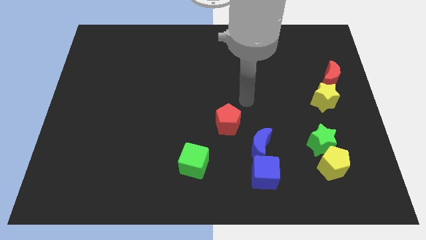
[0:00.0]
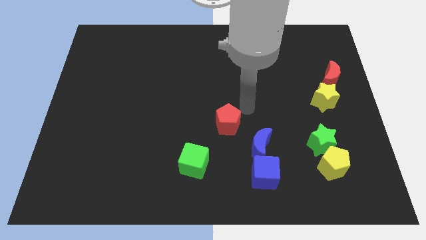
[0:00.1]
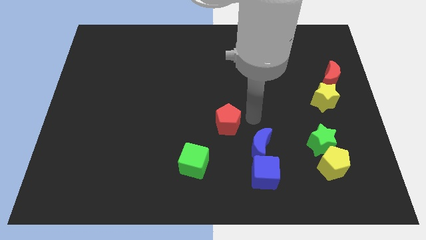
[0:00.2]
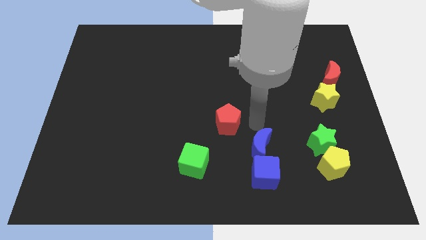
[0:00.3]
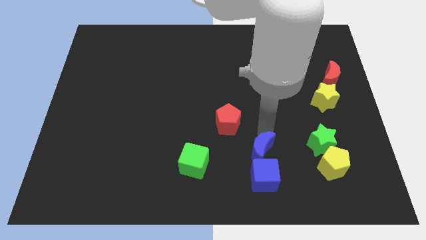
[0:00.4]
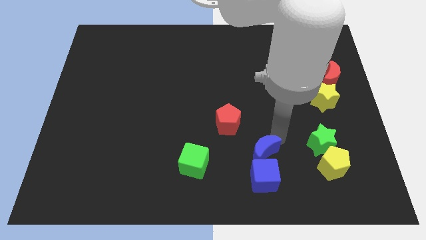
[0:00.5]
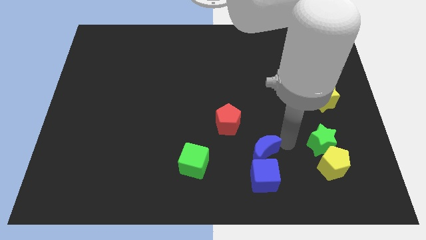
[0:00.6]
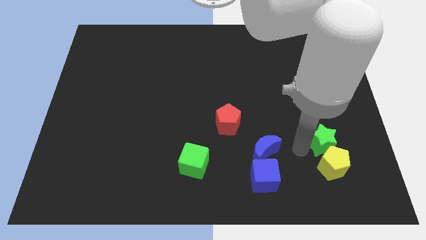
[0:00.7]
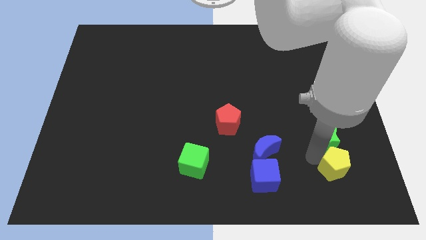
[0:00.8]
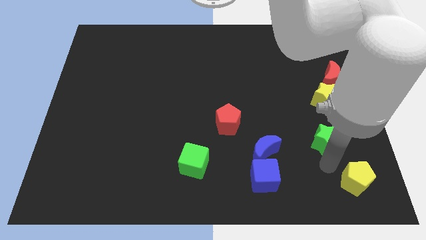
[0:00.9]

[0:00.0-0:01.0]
separate the green star from the yellow pentagon

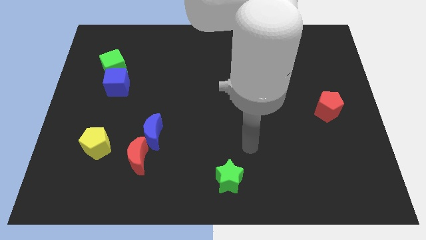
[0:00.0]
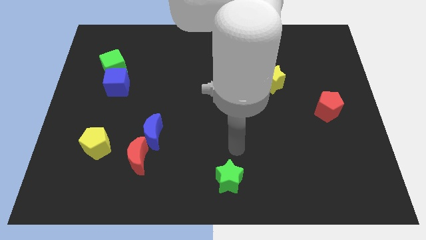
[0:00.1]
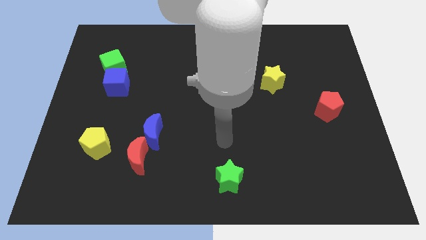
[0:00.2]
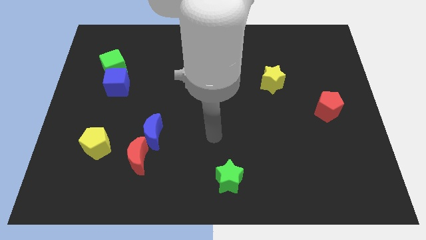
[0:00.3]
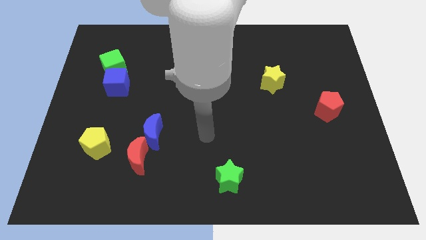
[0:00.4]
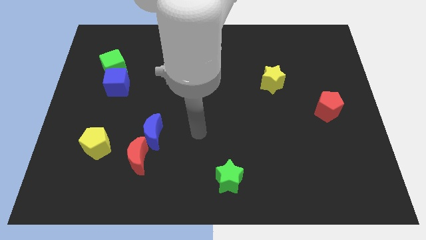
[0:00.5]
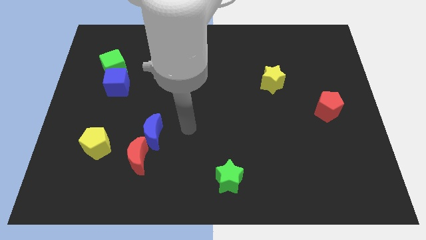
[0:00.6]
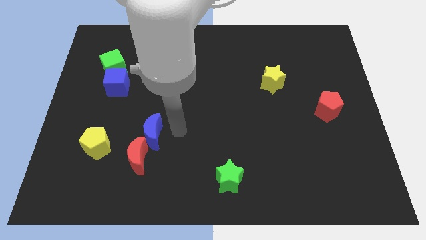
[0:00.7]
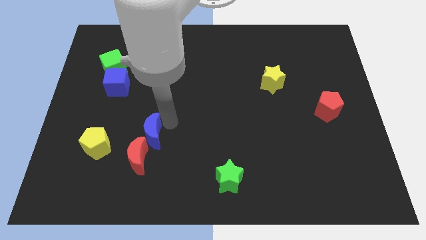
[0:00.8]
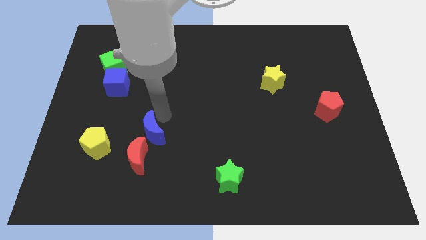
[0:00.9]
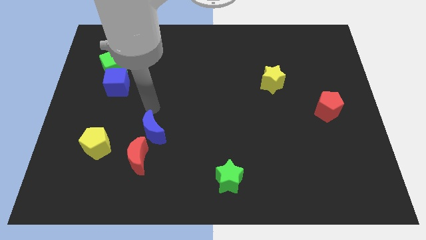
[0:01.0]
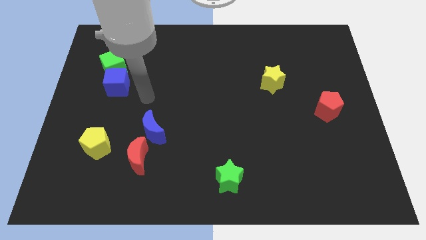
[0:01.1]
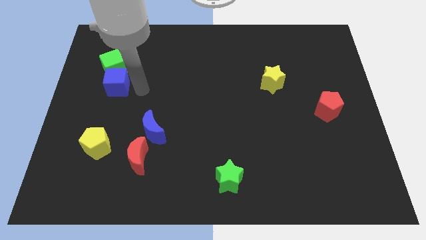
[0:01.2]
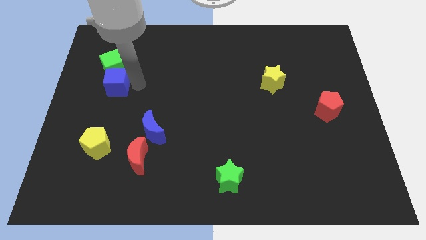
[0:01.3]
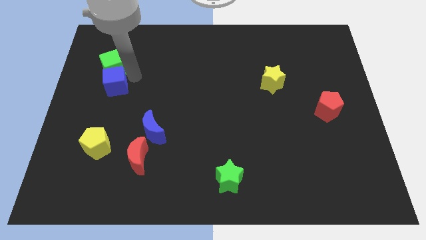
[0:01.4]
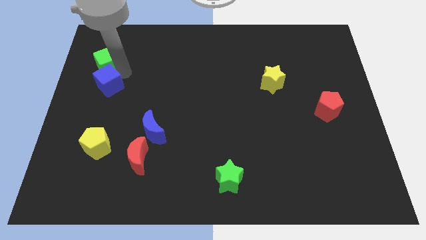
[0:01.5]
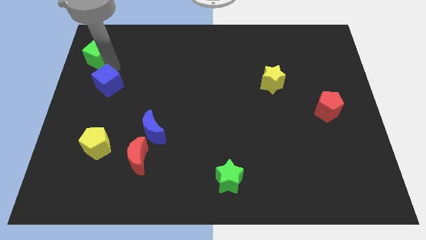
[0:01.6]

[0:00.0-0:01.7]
move the blue cube away from the green cube

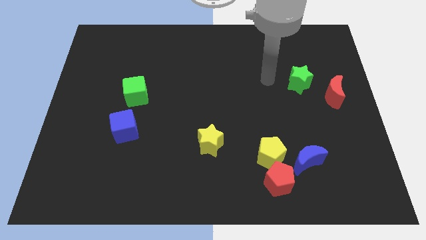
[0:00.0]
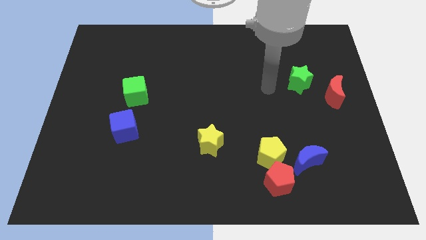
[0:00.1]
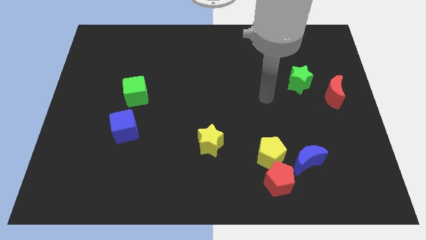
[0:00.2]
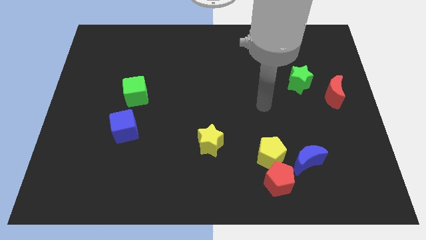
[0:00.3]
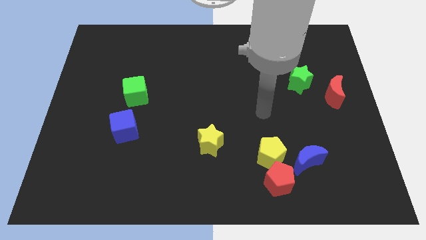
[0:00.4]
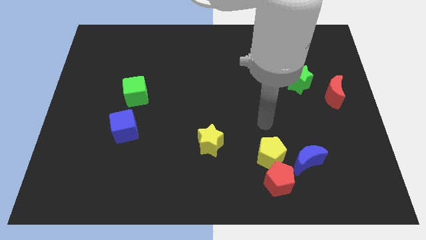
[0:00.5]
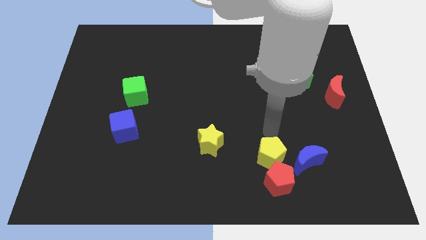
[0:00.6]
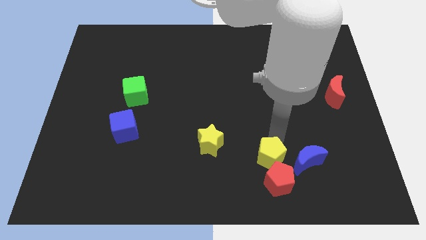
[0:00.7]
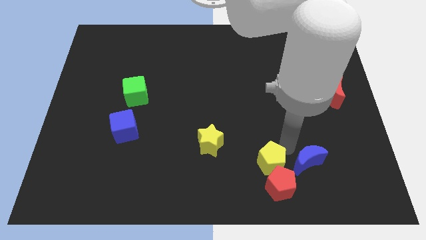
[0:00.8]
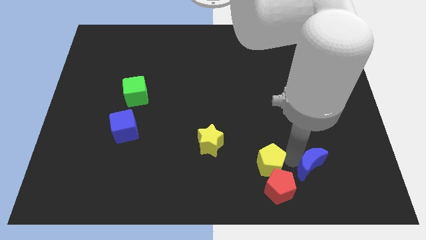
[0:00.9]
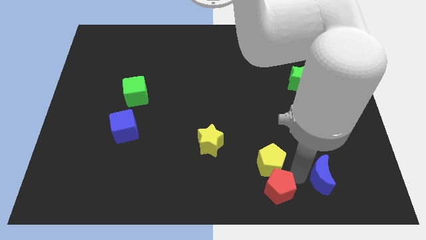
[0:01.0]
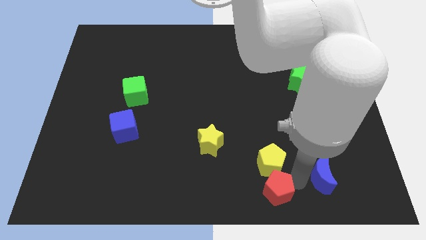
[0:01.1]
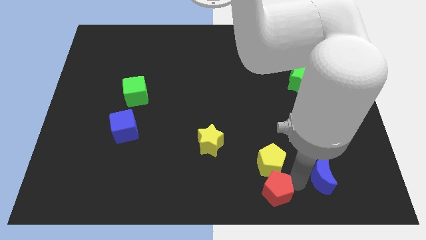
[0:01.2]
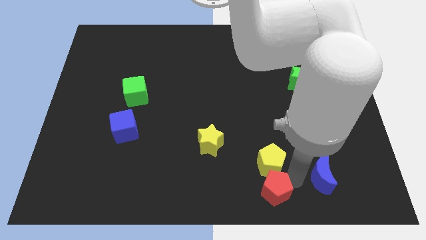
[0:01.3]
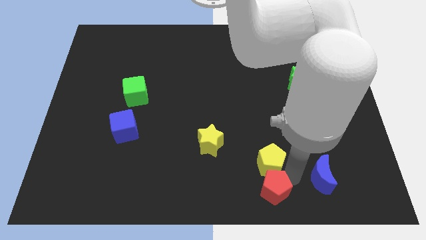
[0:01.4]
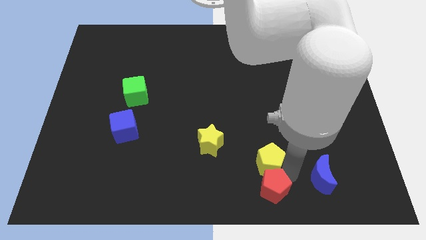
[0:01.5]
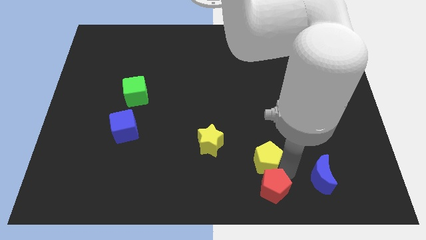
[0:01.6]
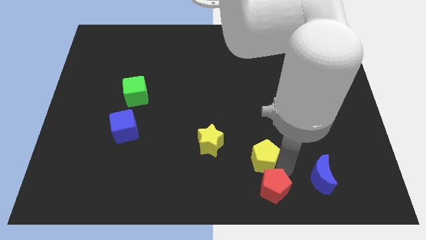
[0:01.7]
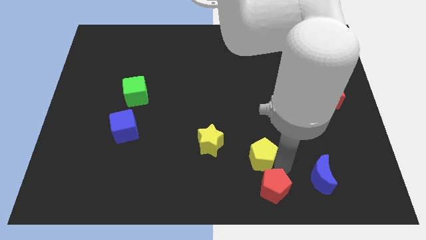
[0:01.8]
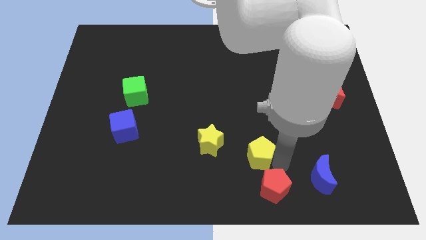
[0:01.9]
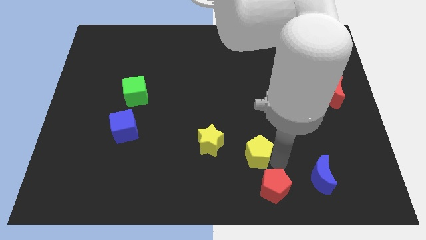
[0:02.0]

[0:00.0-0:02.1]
pull the yellow pentagon apart from the red pentagon and blue moon

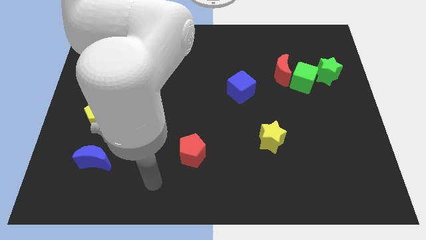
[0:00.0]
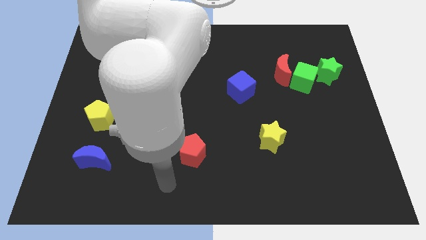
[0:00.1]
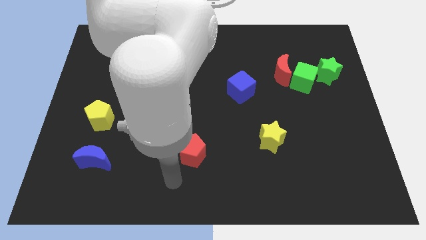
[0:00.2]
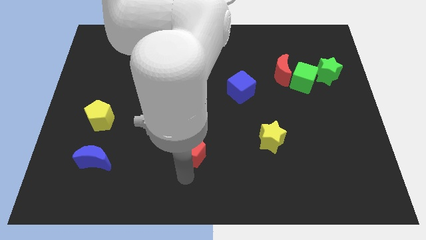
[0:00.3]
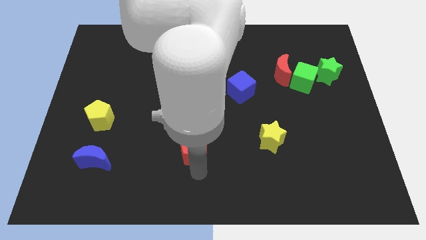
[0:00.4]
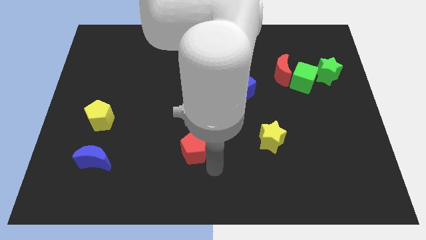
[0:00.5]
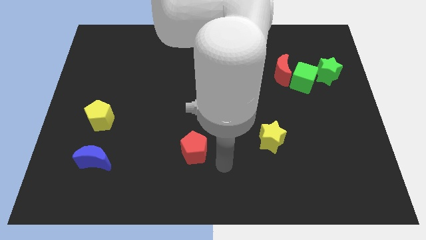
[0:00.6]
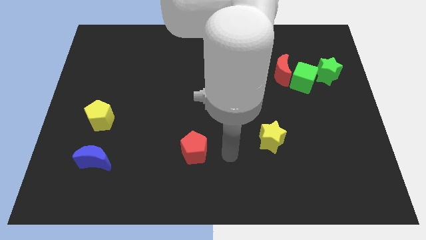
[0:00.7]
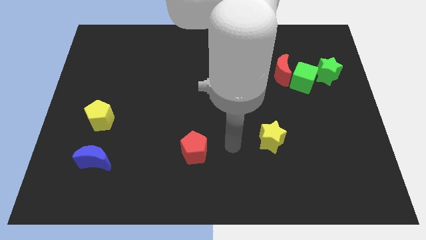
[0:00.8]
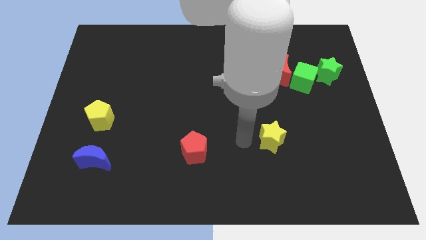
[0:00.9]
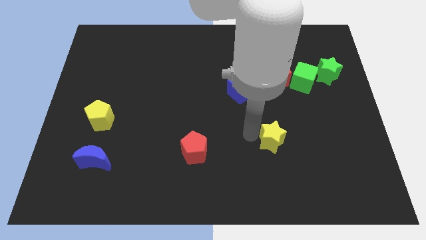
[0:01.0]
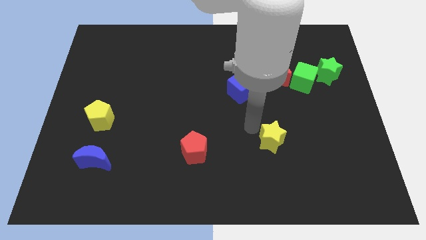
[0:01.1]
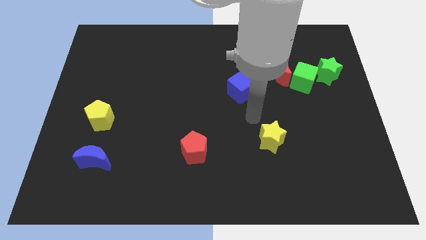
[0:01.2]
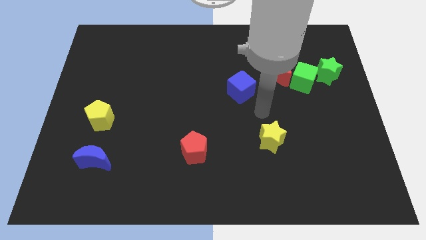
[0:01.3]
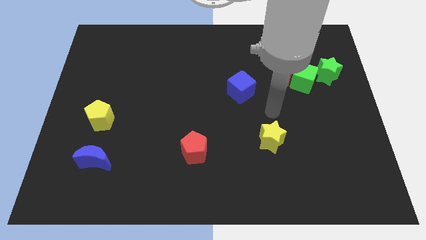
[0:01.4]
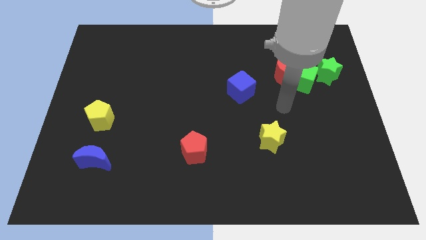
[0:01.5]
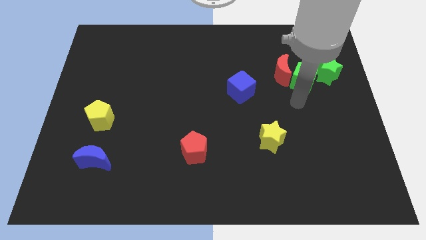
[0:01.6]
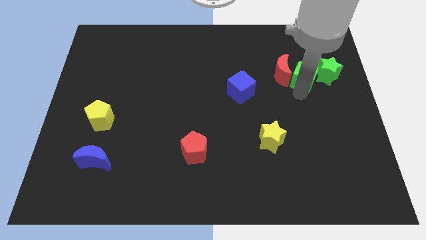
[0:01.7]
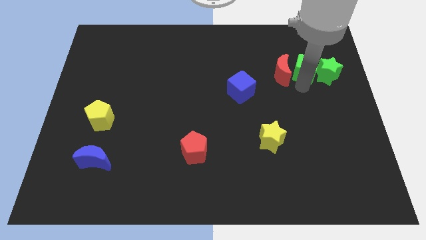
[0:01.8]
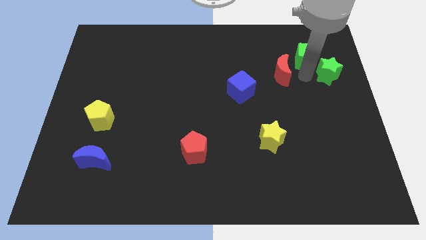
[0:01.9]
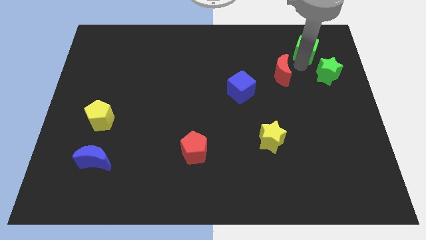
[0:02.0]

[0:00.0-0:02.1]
move the red moon away from the green cube

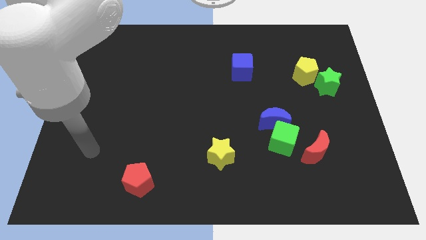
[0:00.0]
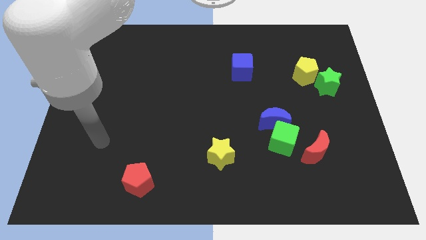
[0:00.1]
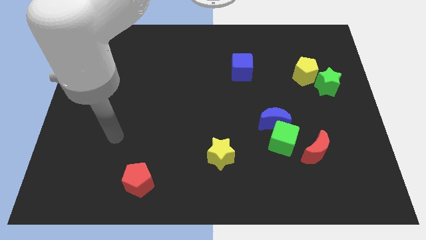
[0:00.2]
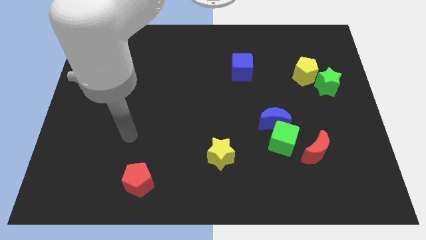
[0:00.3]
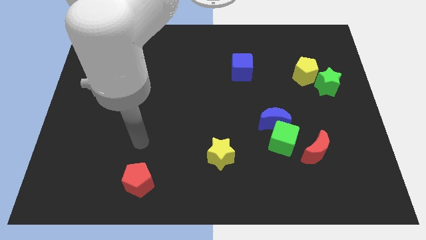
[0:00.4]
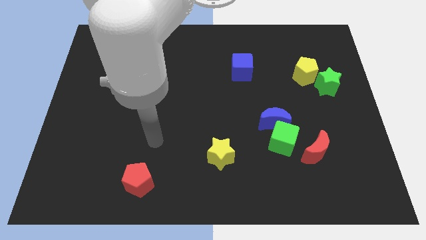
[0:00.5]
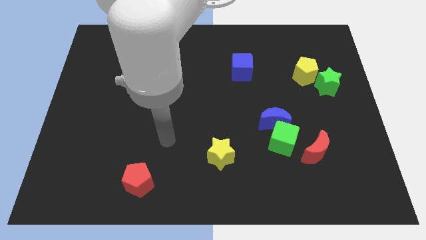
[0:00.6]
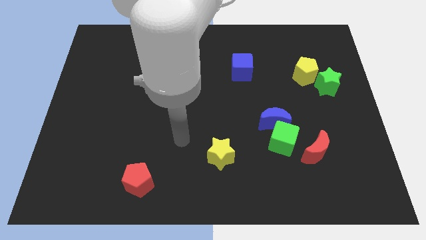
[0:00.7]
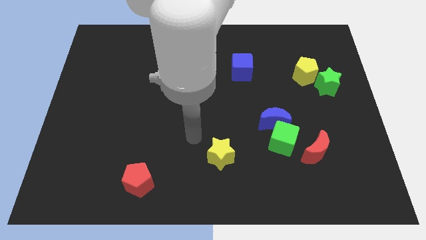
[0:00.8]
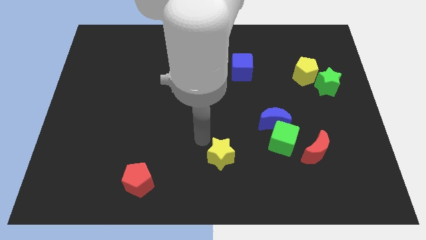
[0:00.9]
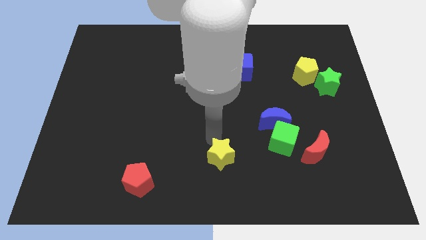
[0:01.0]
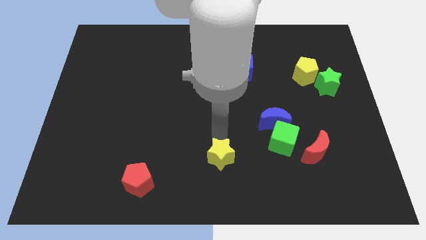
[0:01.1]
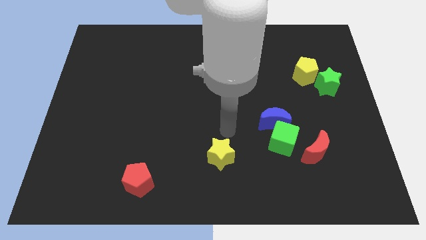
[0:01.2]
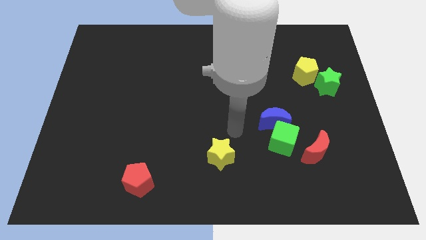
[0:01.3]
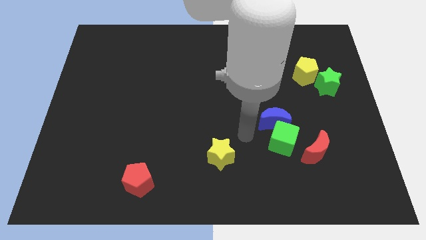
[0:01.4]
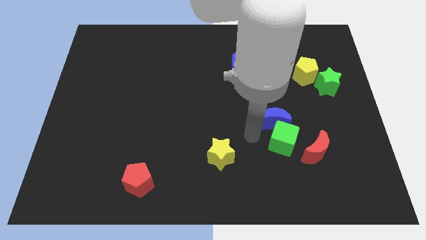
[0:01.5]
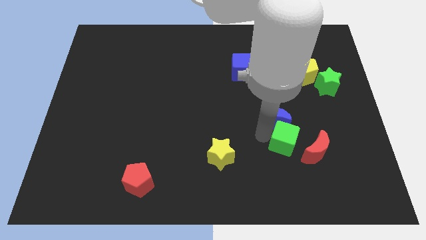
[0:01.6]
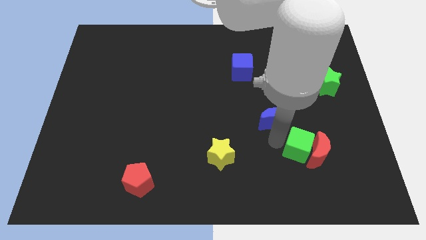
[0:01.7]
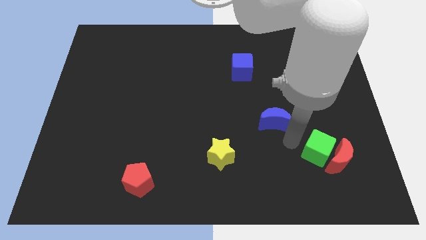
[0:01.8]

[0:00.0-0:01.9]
pull the blue moon apart from the green cube

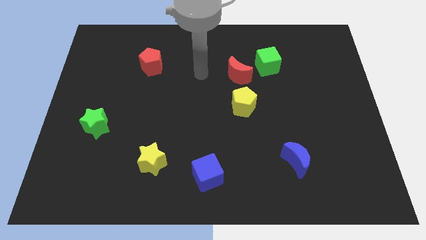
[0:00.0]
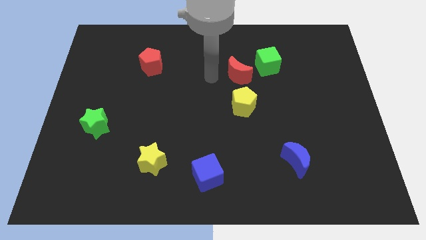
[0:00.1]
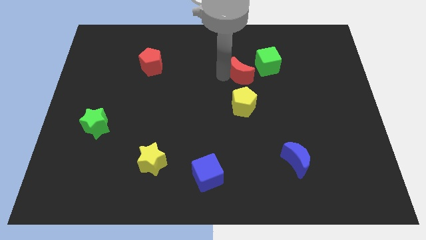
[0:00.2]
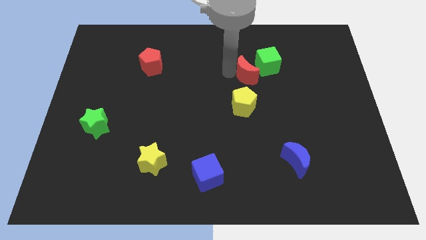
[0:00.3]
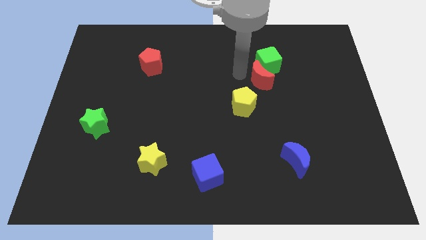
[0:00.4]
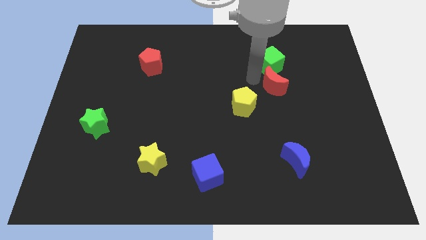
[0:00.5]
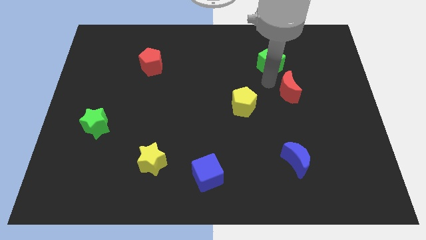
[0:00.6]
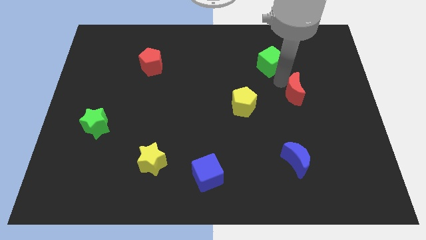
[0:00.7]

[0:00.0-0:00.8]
pull the green cube apart from the red moon
